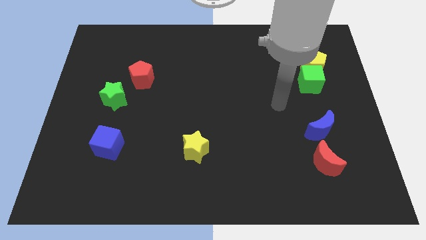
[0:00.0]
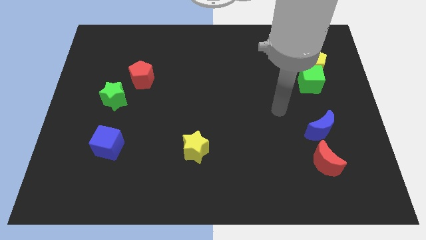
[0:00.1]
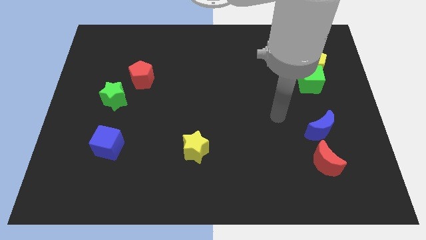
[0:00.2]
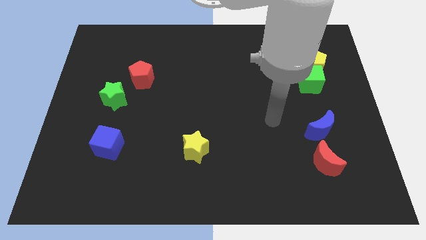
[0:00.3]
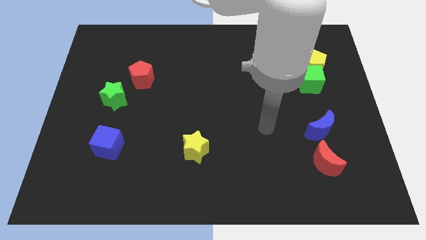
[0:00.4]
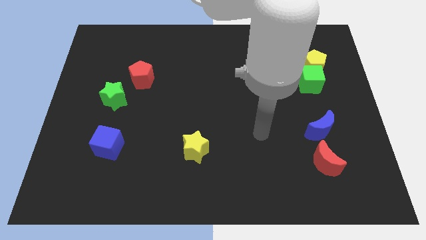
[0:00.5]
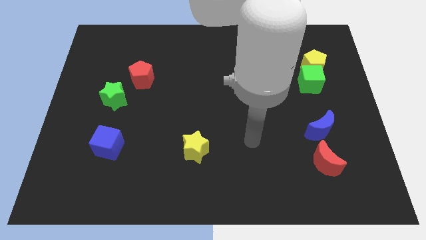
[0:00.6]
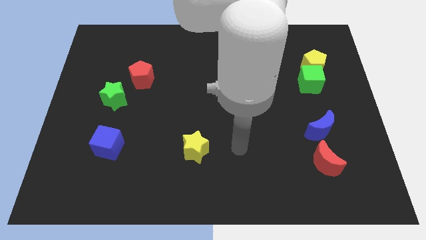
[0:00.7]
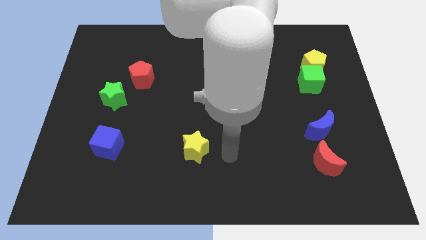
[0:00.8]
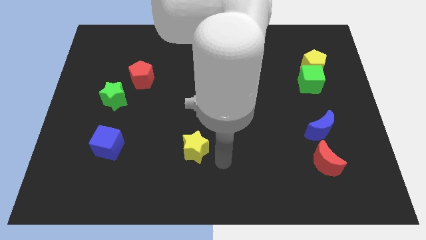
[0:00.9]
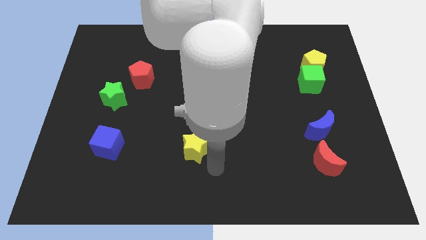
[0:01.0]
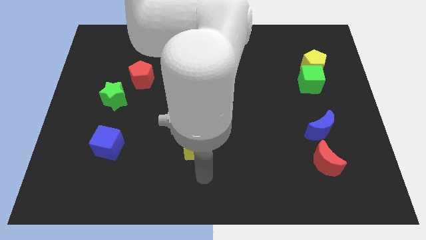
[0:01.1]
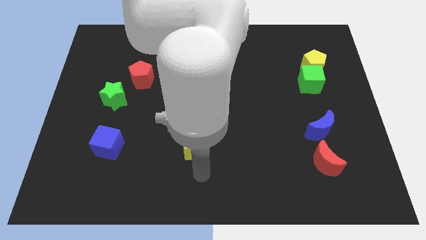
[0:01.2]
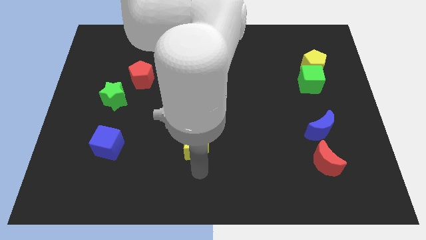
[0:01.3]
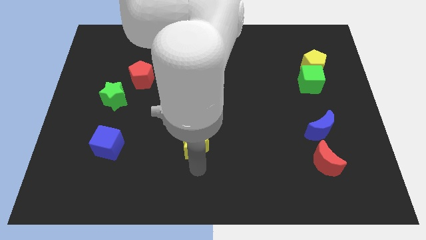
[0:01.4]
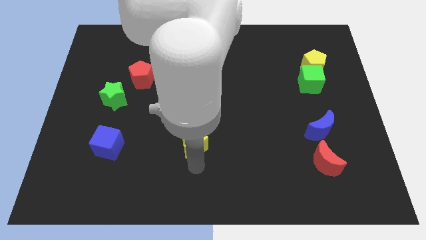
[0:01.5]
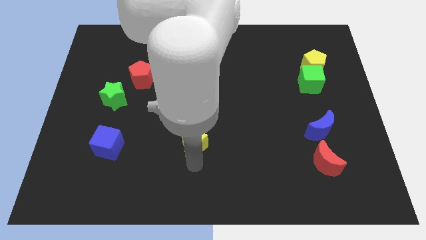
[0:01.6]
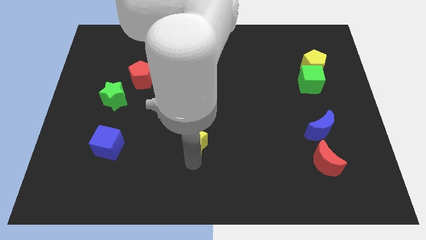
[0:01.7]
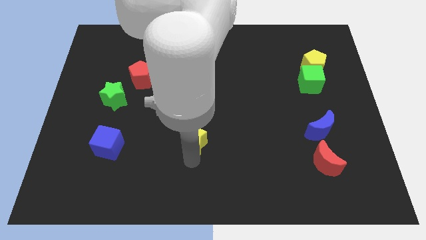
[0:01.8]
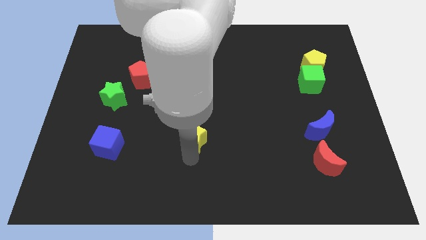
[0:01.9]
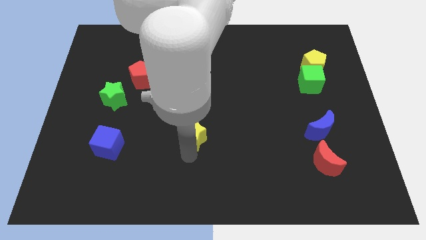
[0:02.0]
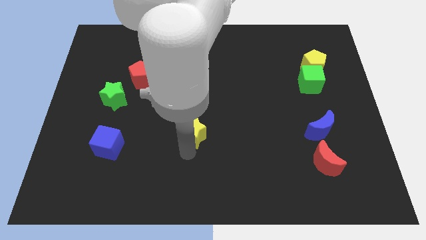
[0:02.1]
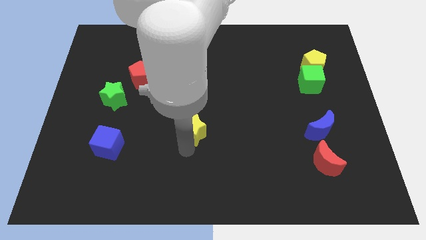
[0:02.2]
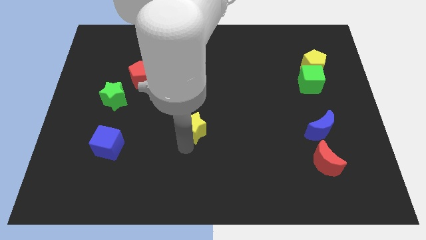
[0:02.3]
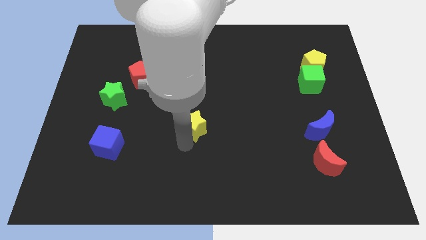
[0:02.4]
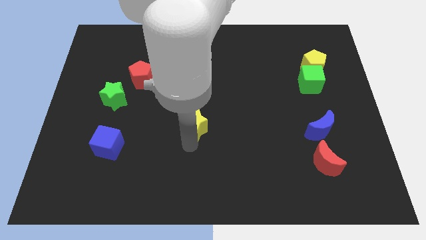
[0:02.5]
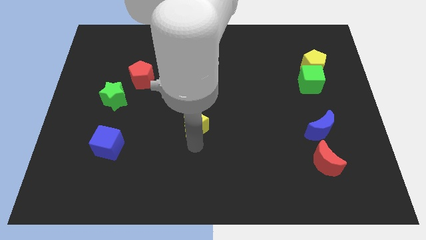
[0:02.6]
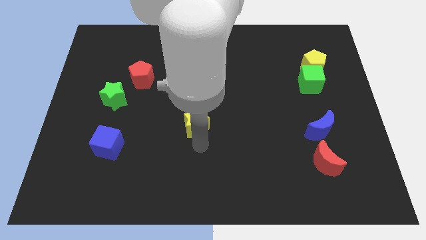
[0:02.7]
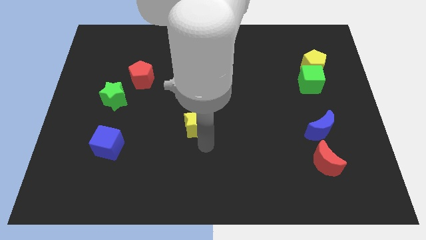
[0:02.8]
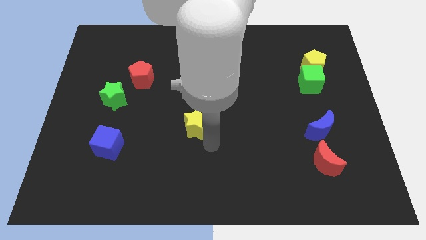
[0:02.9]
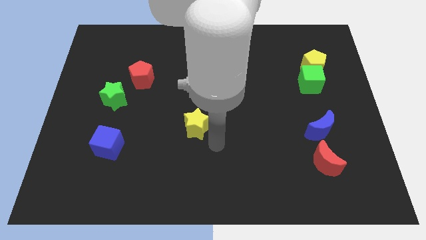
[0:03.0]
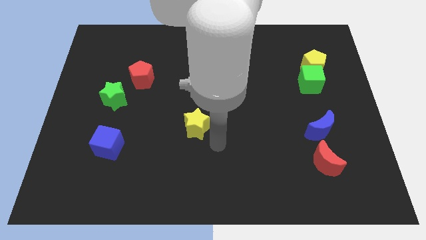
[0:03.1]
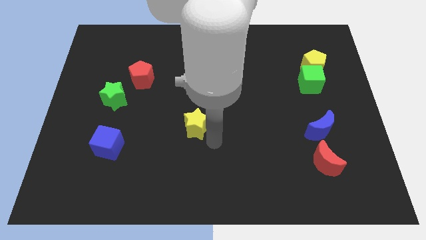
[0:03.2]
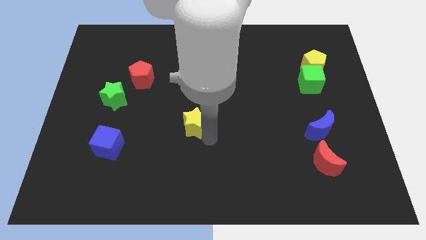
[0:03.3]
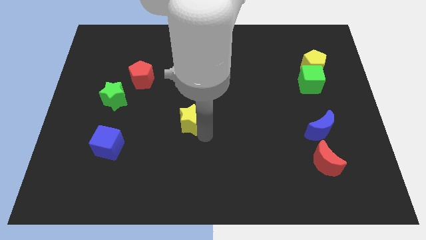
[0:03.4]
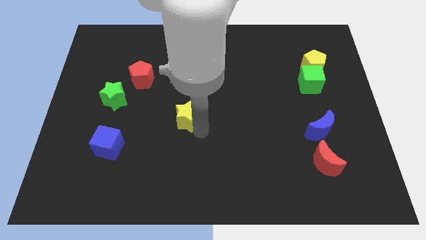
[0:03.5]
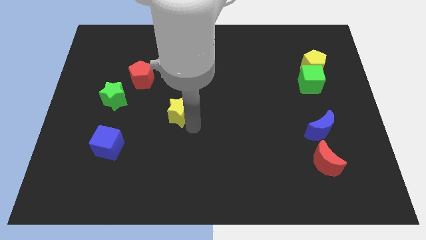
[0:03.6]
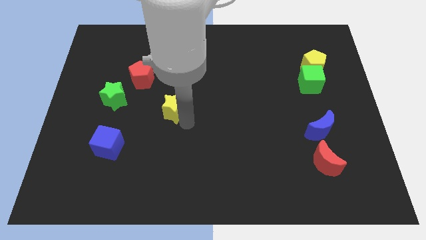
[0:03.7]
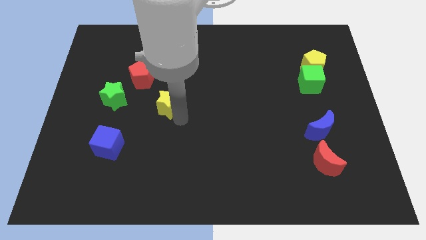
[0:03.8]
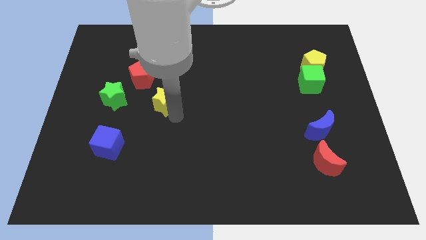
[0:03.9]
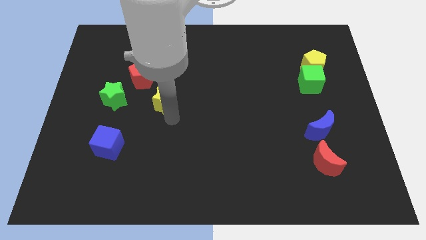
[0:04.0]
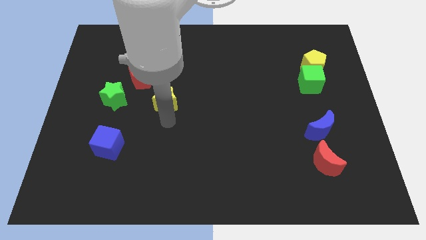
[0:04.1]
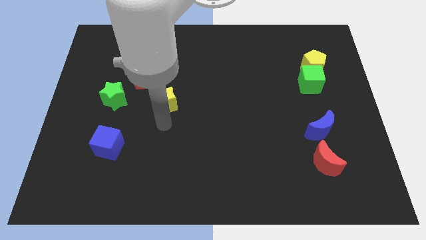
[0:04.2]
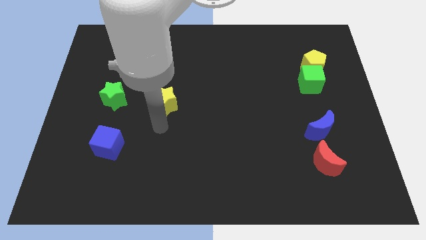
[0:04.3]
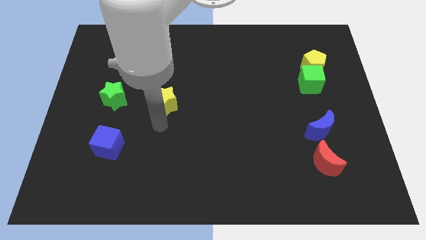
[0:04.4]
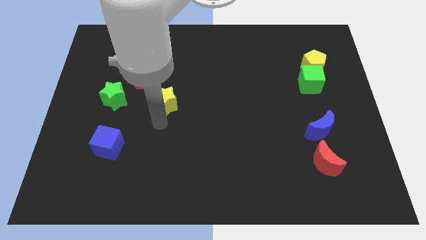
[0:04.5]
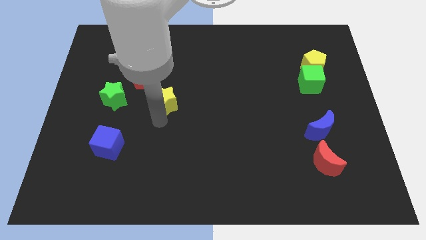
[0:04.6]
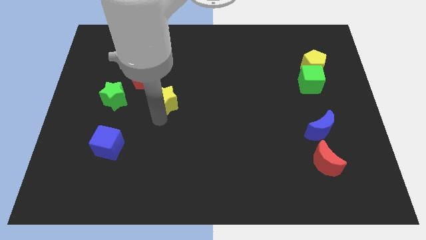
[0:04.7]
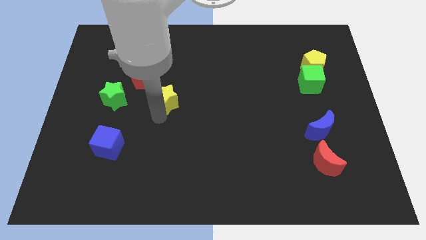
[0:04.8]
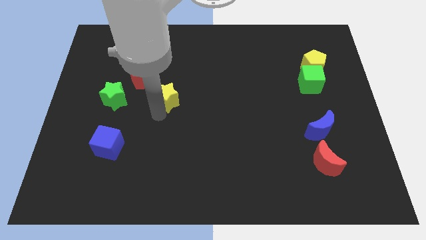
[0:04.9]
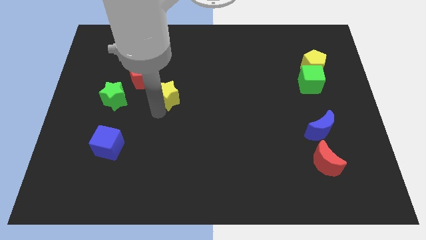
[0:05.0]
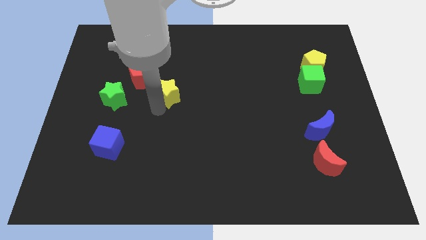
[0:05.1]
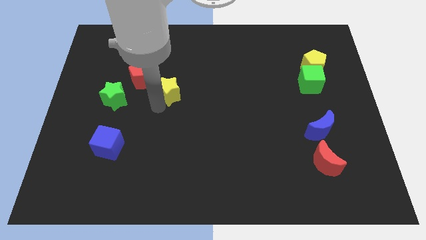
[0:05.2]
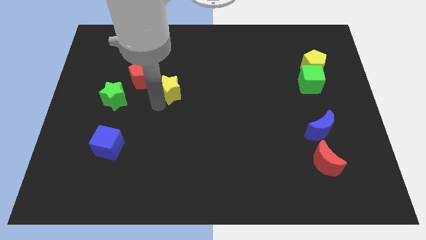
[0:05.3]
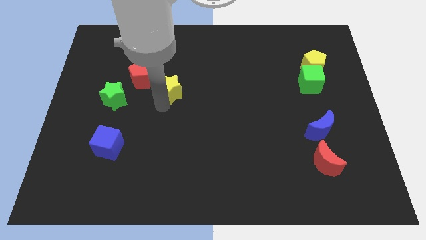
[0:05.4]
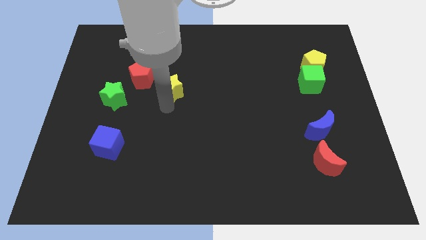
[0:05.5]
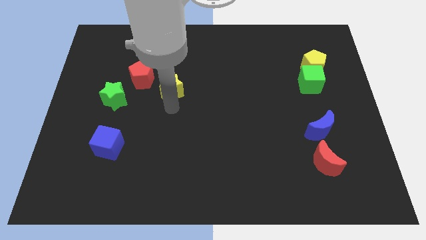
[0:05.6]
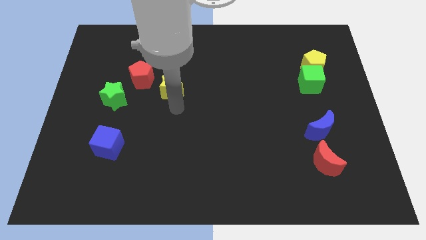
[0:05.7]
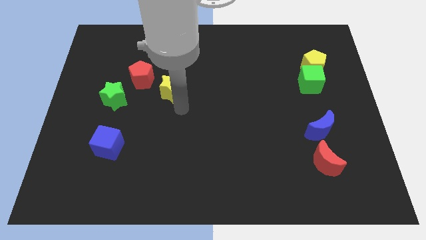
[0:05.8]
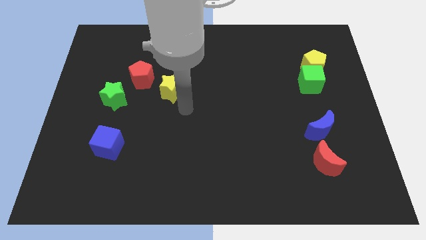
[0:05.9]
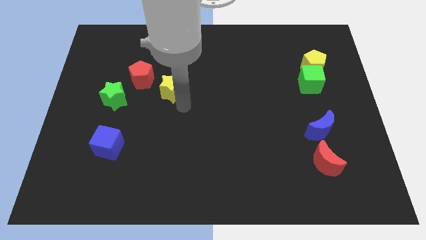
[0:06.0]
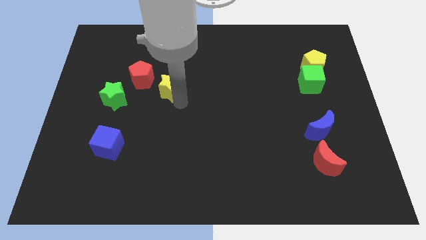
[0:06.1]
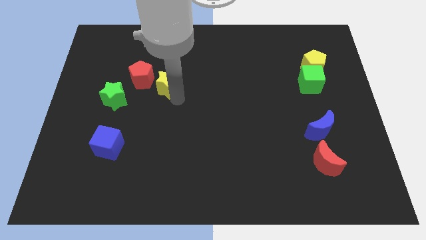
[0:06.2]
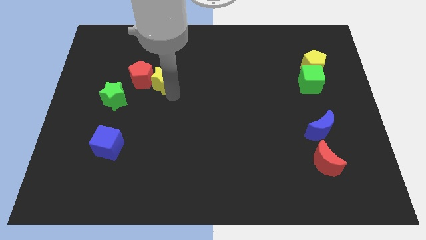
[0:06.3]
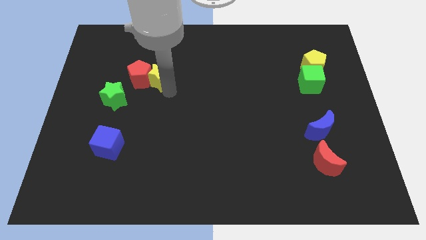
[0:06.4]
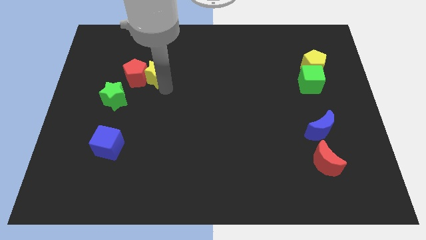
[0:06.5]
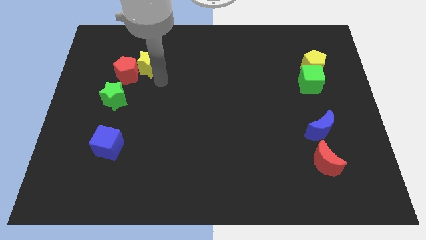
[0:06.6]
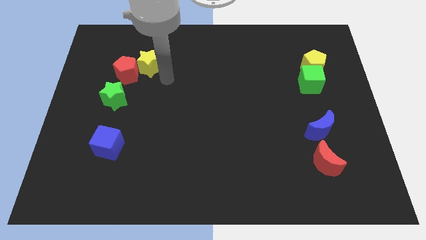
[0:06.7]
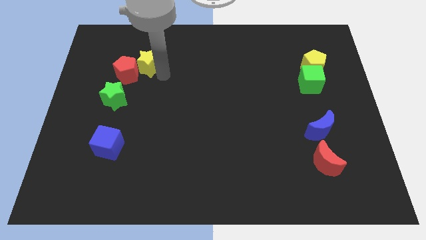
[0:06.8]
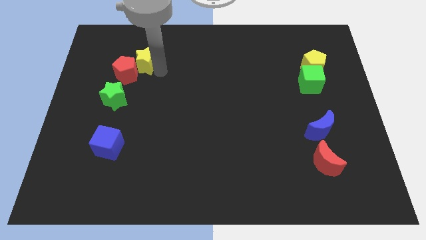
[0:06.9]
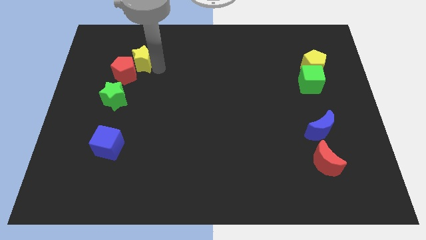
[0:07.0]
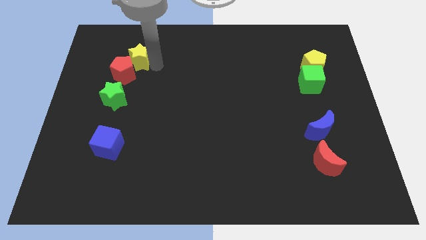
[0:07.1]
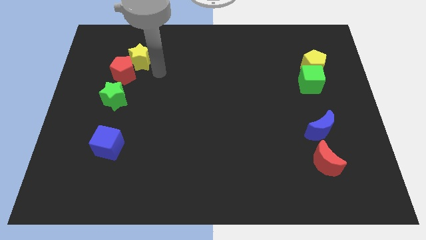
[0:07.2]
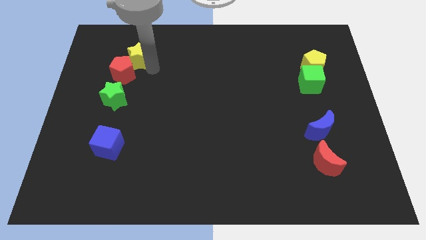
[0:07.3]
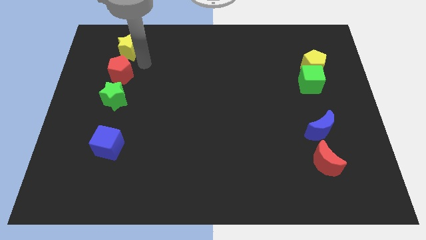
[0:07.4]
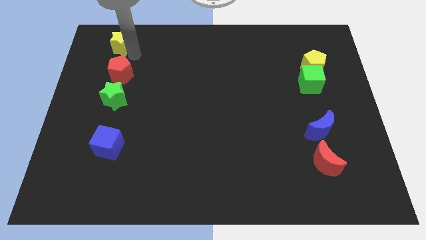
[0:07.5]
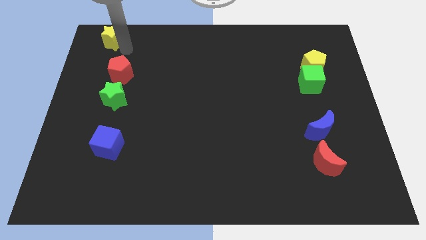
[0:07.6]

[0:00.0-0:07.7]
move the yellow star to the top left of the board
